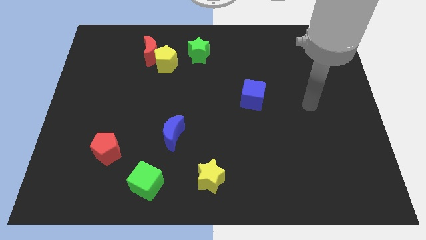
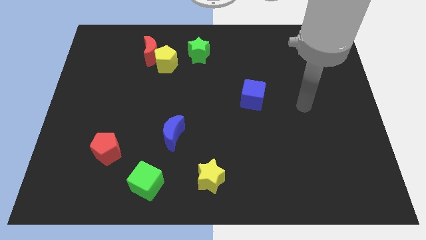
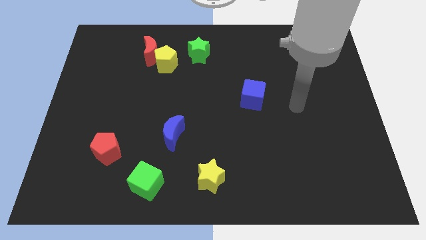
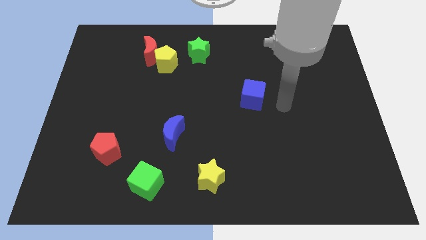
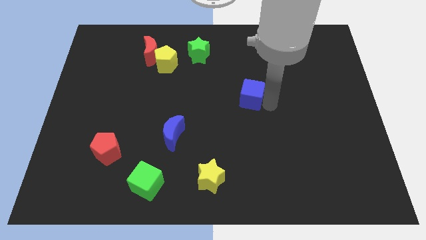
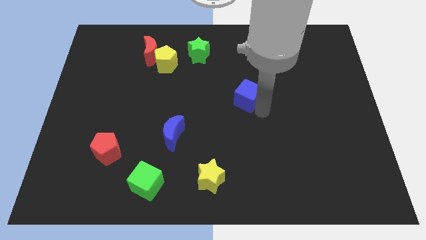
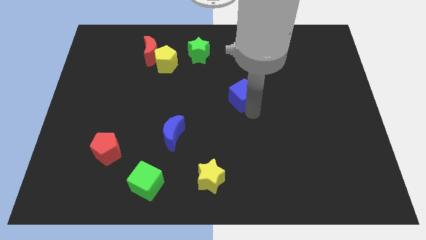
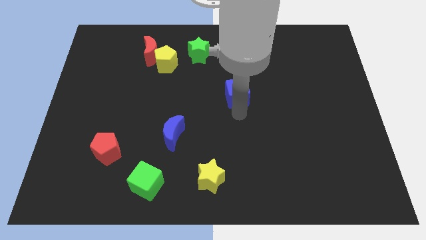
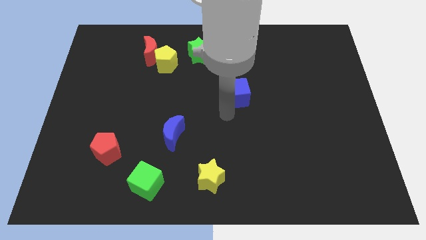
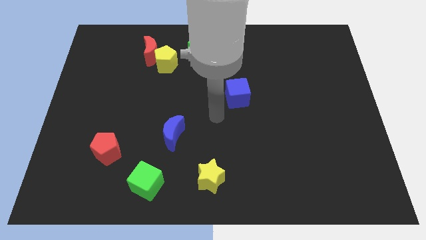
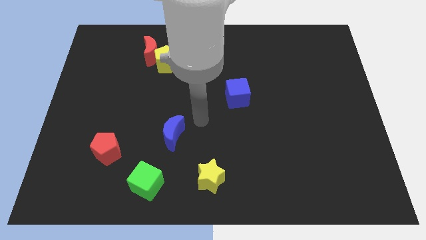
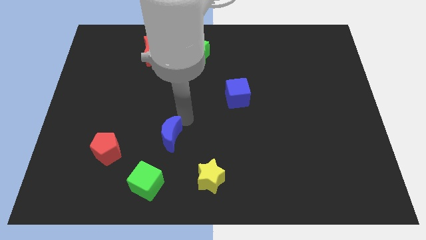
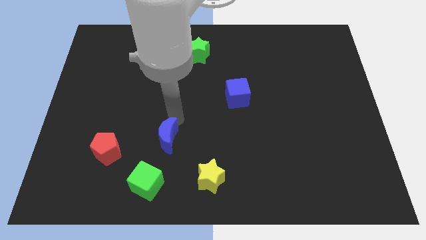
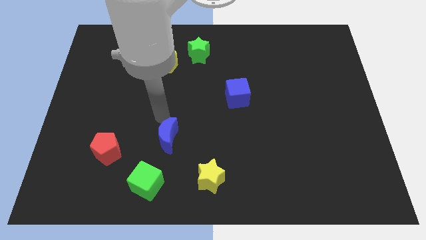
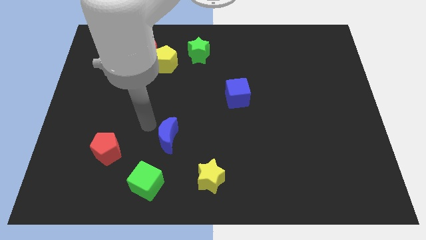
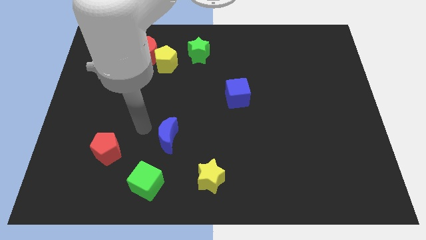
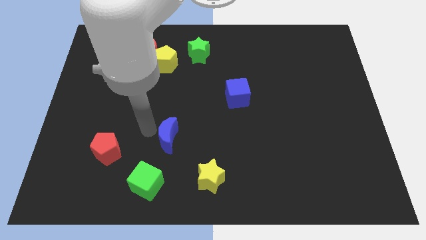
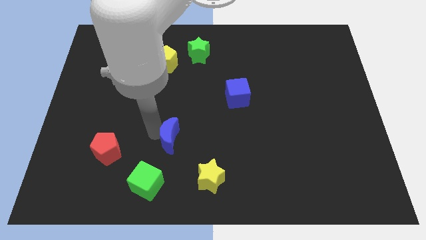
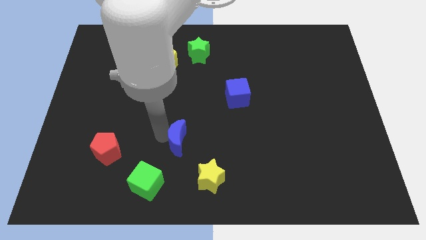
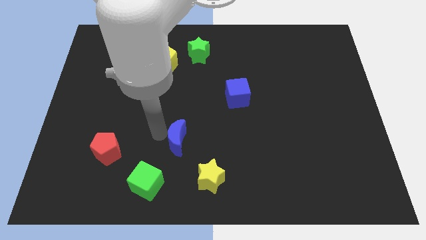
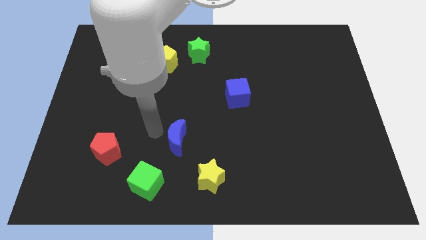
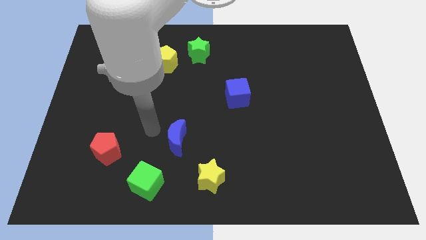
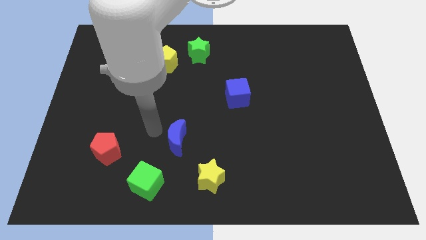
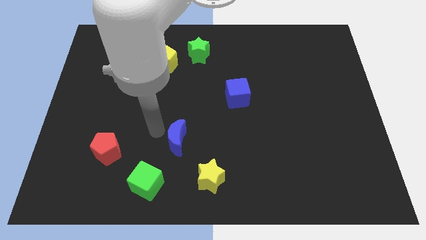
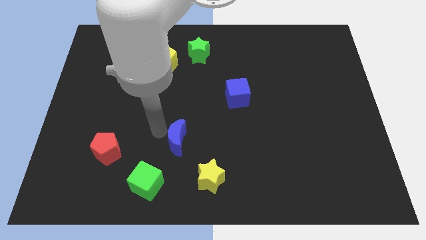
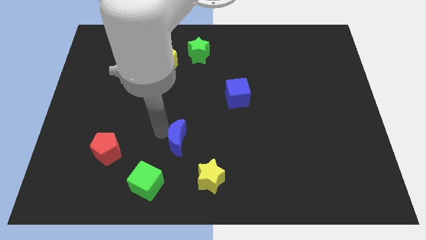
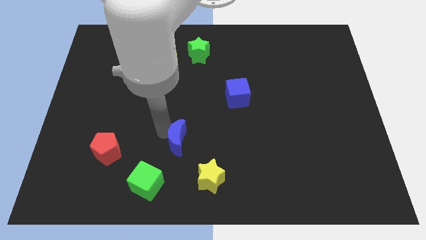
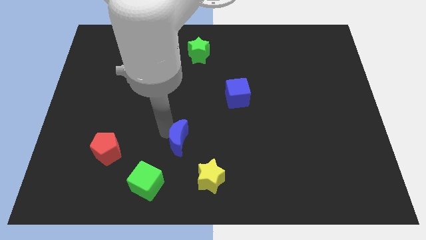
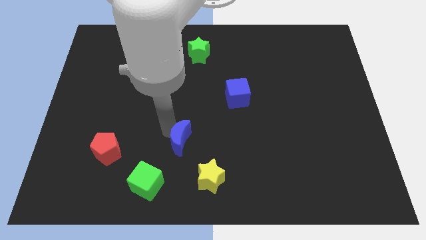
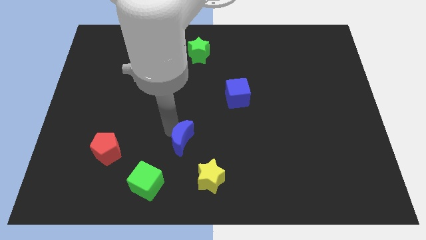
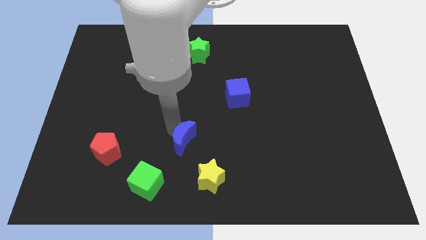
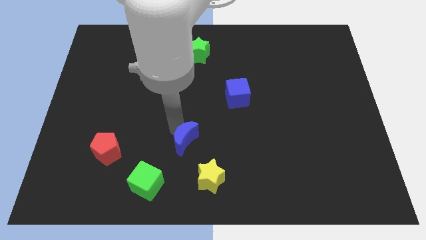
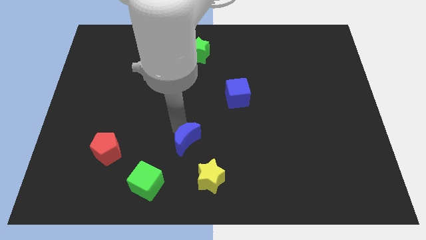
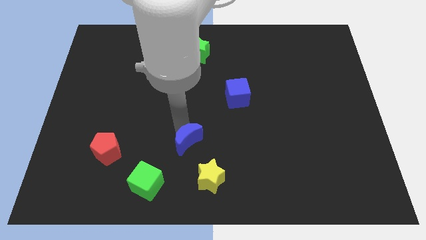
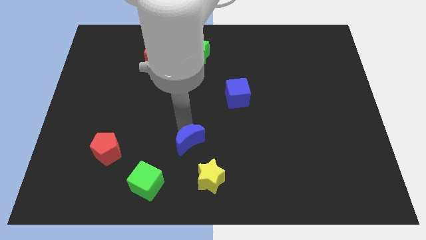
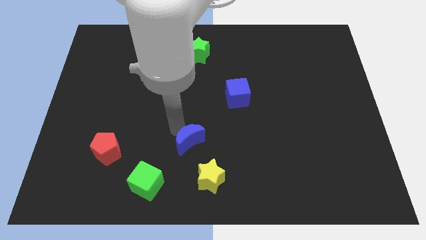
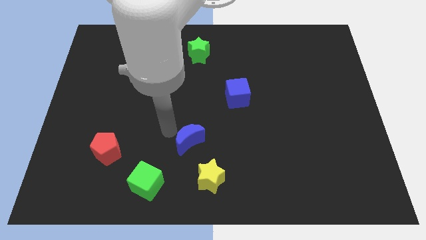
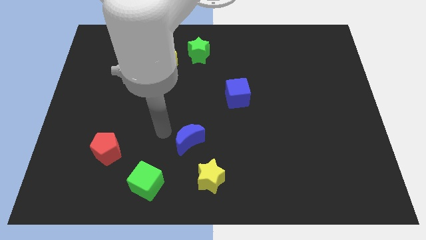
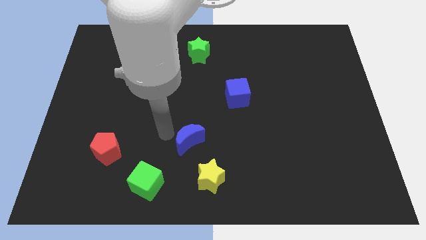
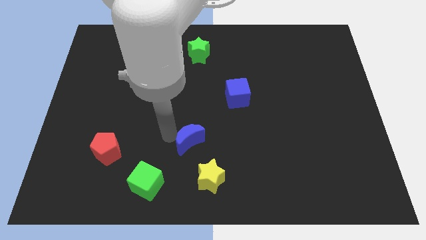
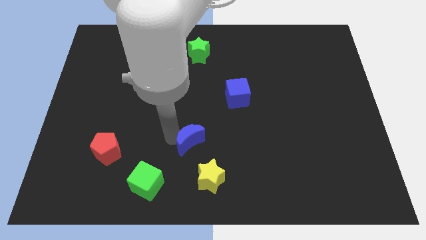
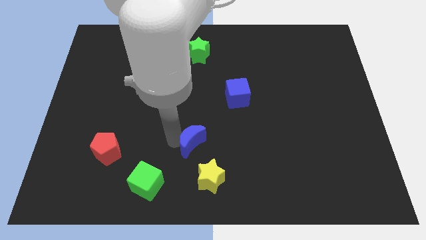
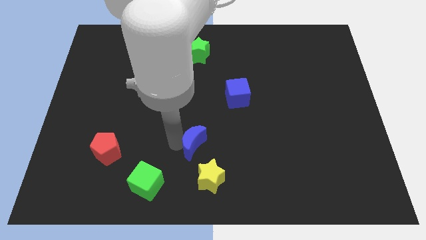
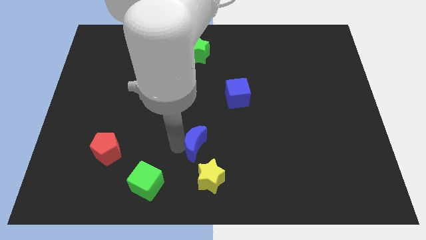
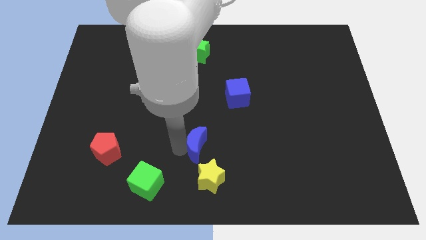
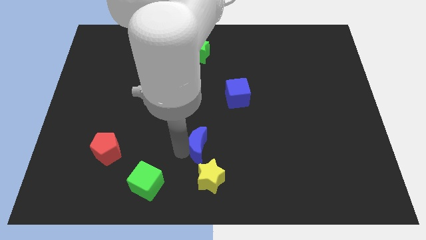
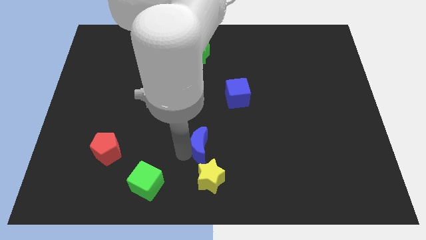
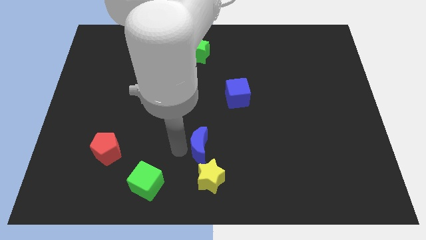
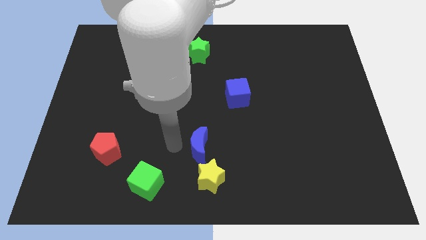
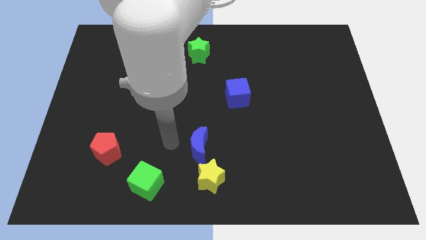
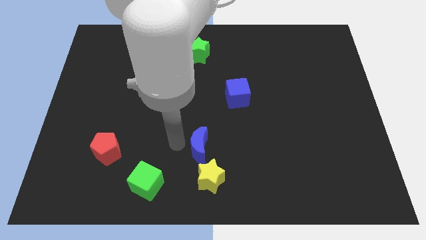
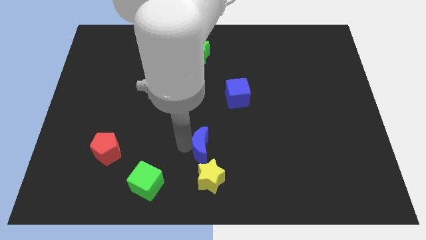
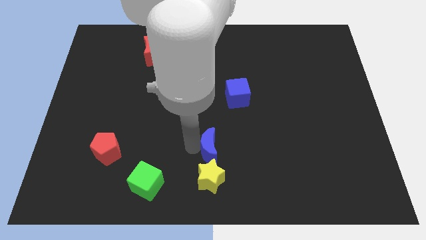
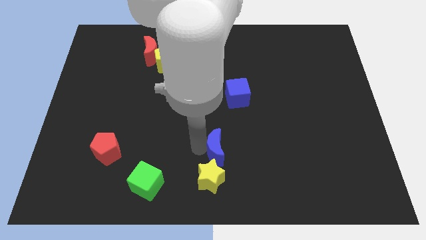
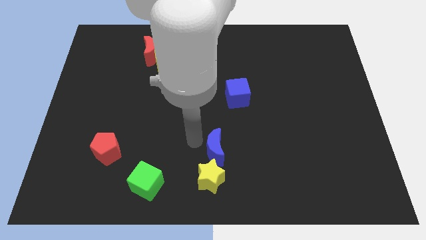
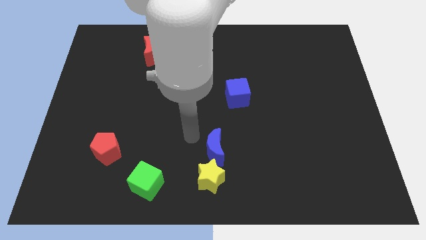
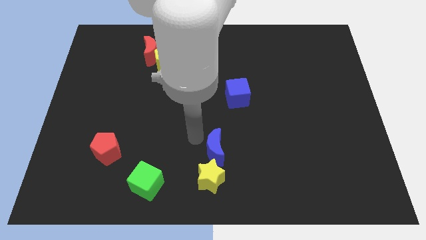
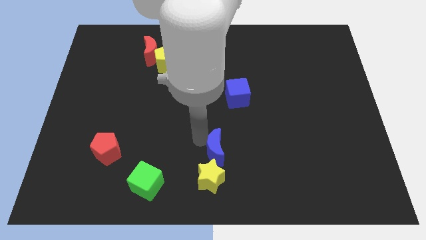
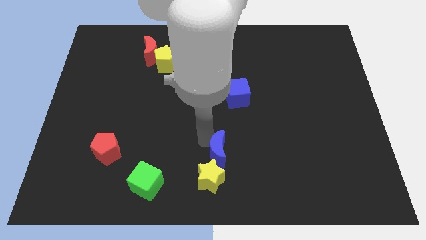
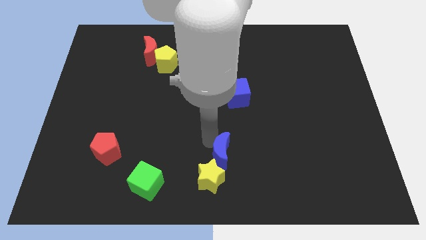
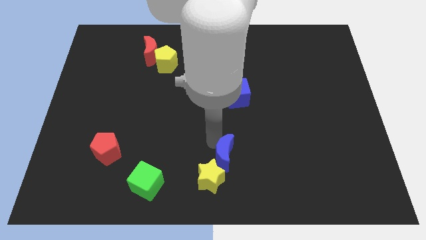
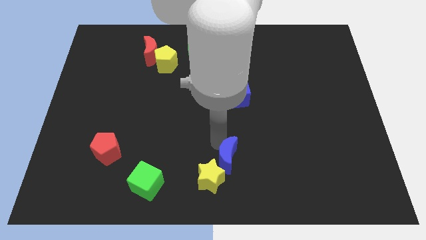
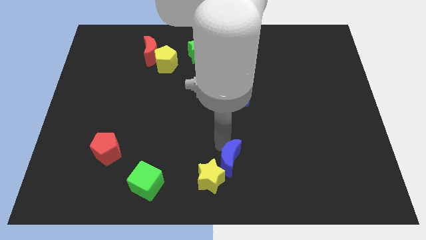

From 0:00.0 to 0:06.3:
move the blue moon just right of the yellow star
